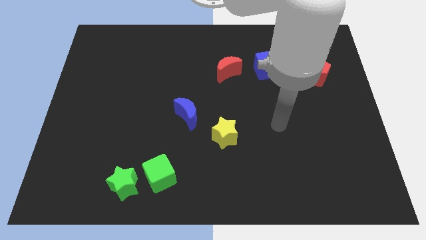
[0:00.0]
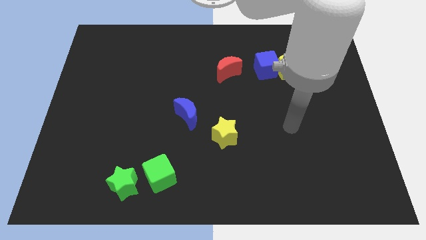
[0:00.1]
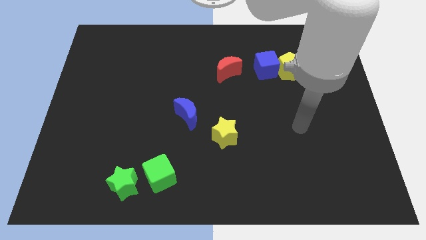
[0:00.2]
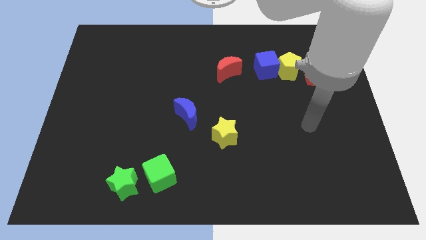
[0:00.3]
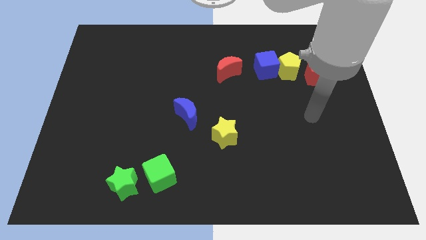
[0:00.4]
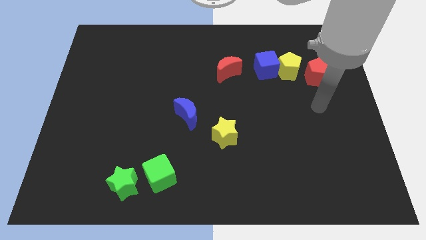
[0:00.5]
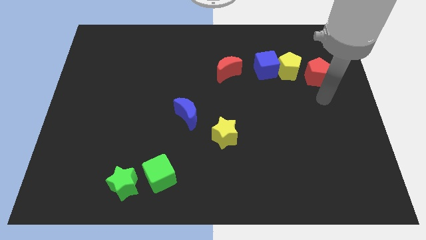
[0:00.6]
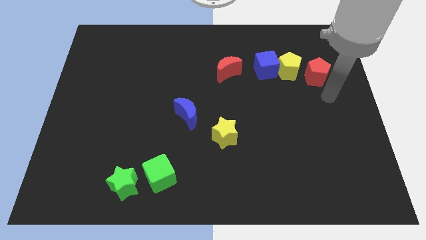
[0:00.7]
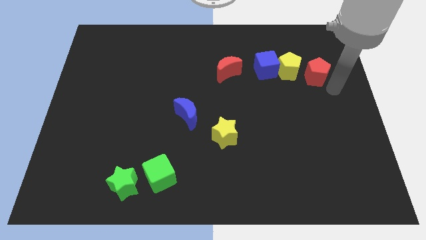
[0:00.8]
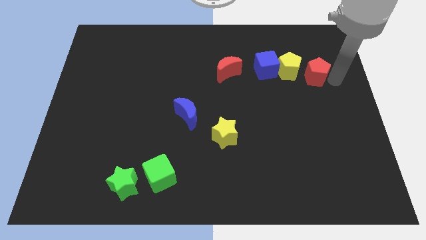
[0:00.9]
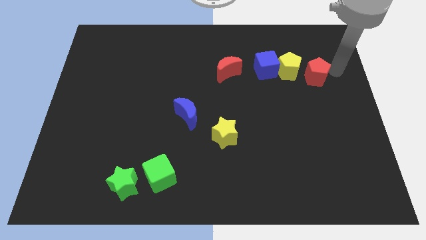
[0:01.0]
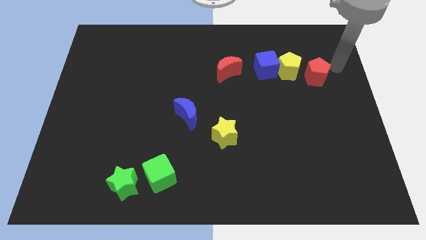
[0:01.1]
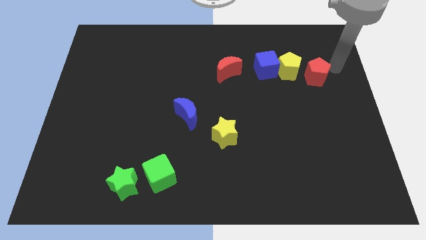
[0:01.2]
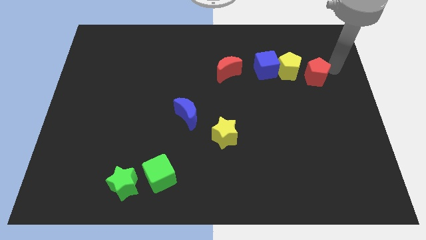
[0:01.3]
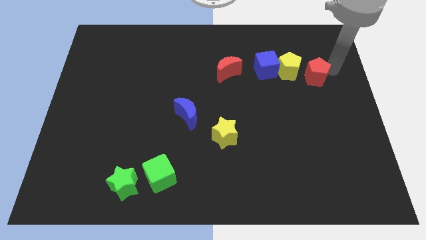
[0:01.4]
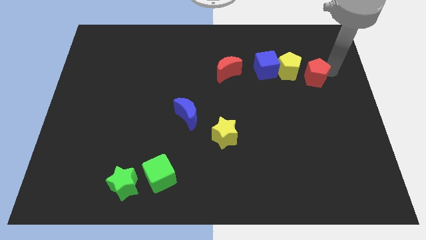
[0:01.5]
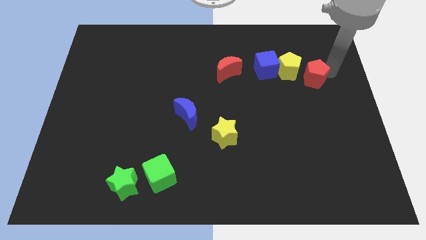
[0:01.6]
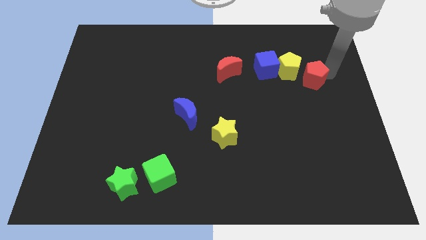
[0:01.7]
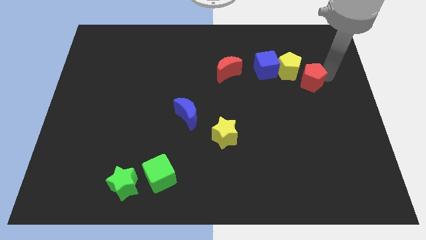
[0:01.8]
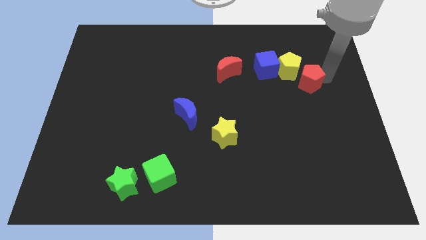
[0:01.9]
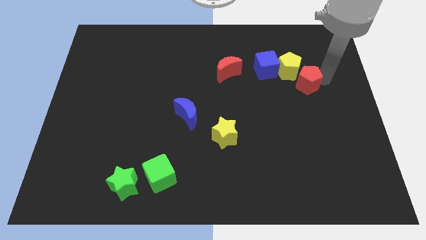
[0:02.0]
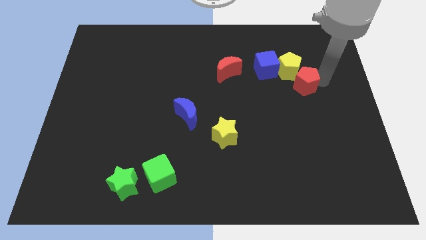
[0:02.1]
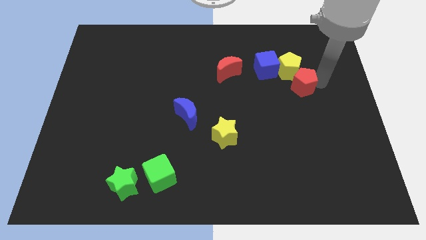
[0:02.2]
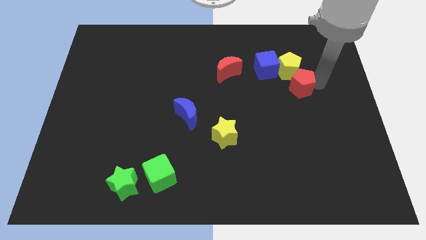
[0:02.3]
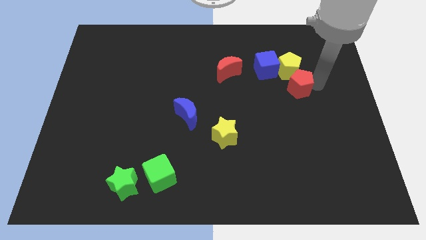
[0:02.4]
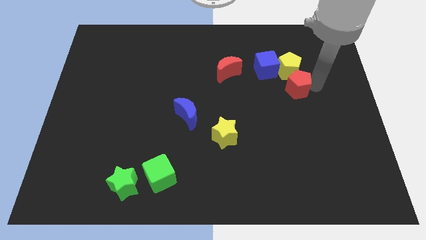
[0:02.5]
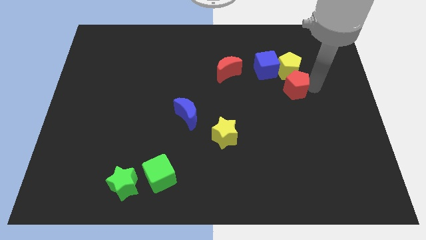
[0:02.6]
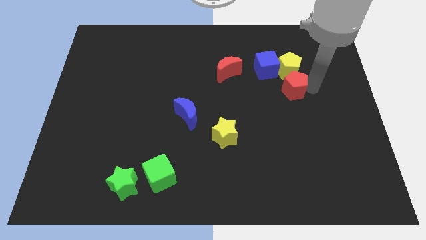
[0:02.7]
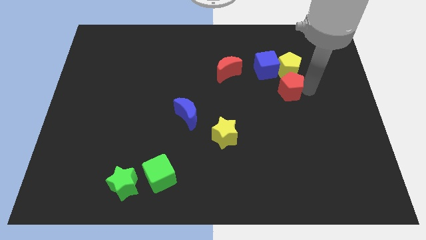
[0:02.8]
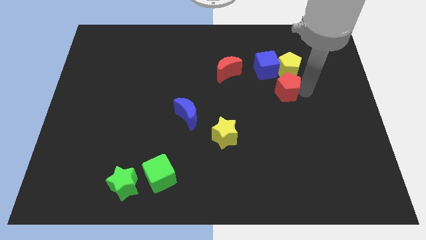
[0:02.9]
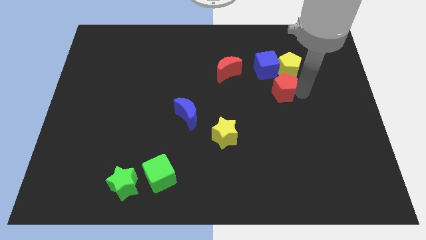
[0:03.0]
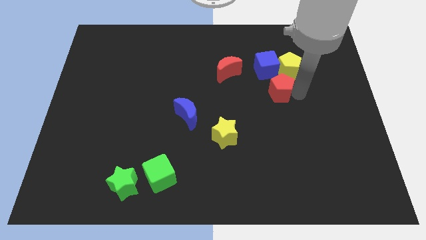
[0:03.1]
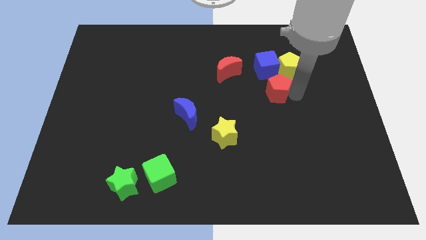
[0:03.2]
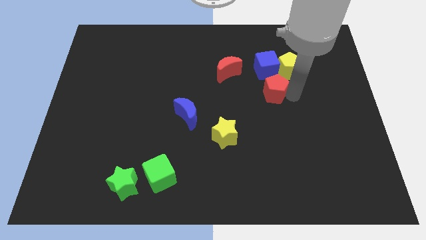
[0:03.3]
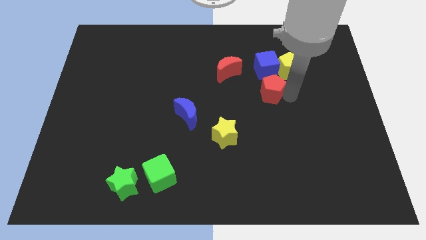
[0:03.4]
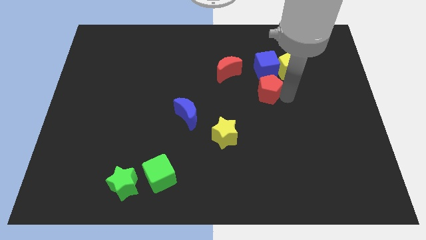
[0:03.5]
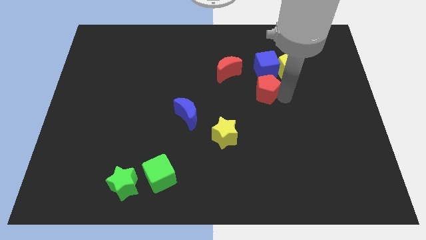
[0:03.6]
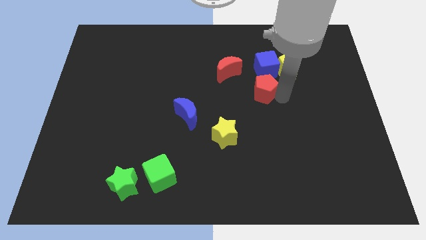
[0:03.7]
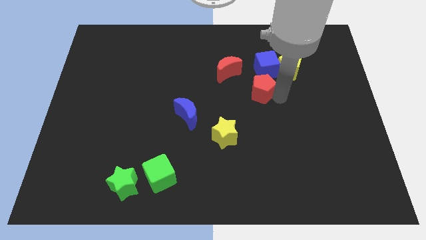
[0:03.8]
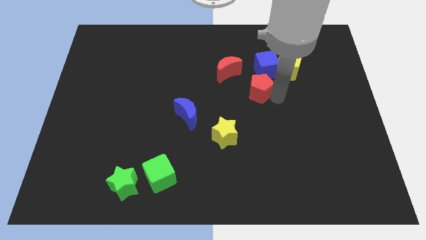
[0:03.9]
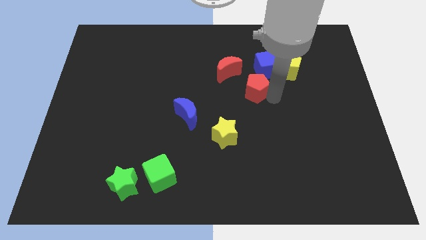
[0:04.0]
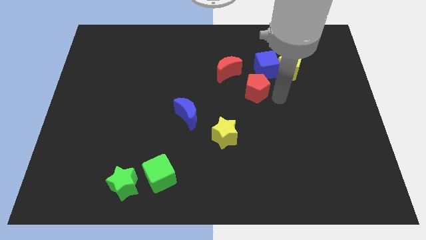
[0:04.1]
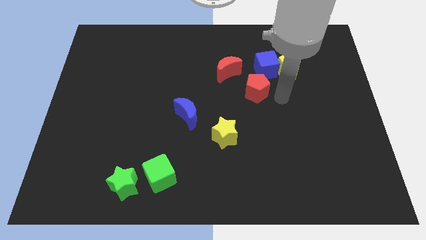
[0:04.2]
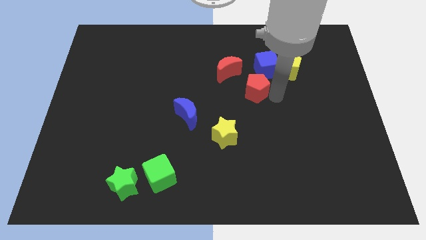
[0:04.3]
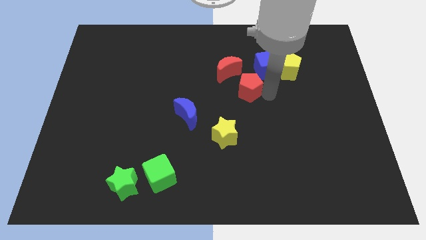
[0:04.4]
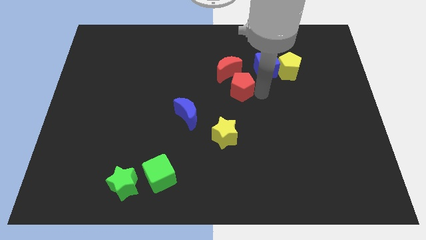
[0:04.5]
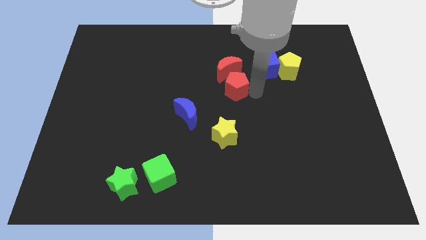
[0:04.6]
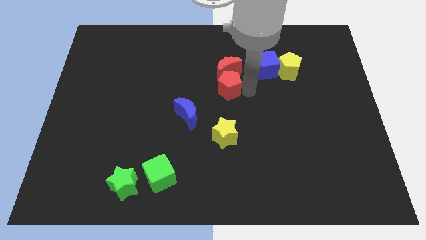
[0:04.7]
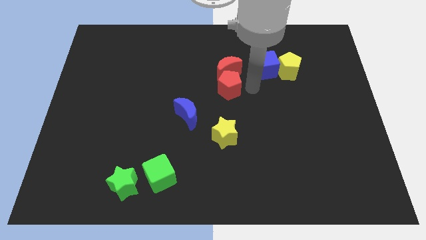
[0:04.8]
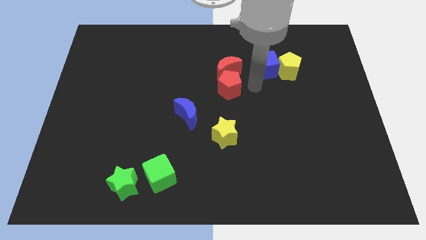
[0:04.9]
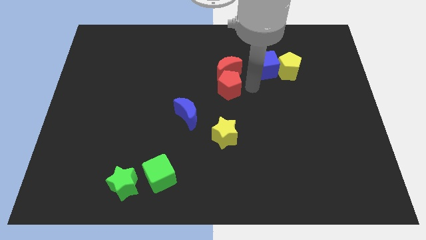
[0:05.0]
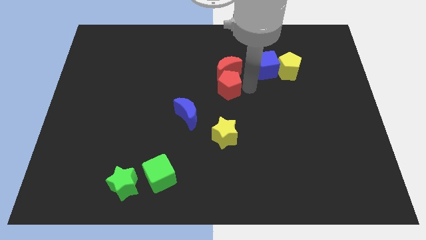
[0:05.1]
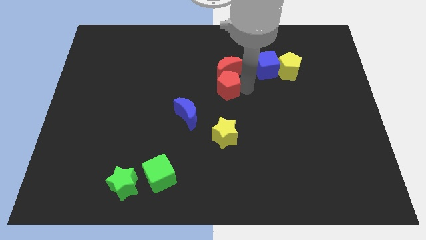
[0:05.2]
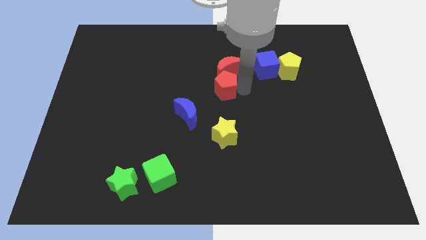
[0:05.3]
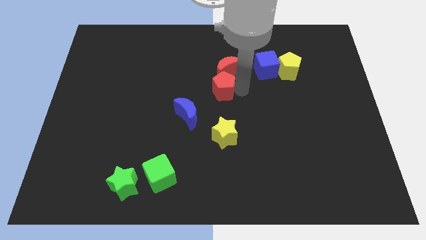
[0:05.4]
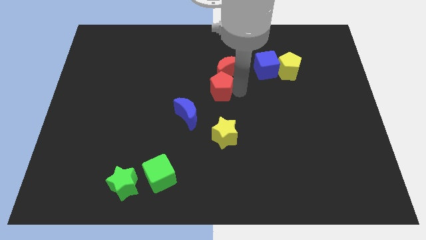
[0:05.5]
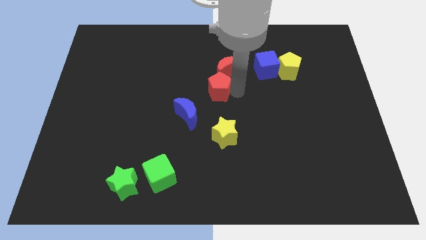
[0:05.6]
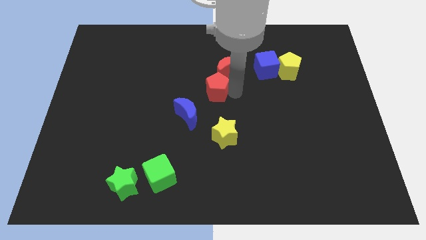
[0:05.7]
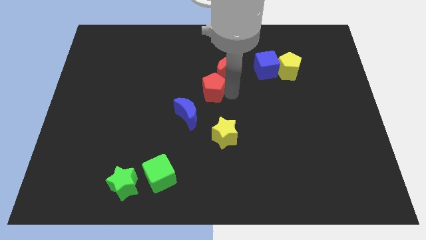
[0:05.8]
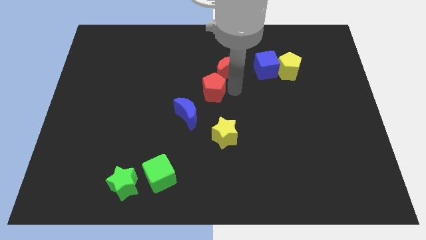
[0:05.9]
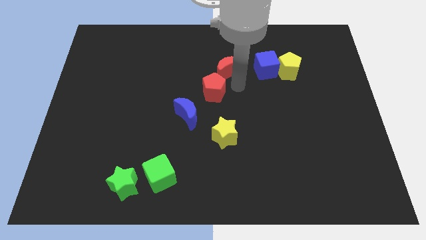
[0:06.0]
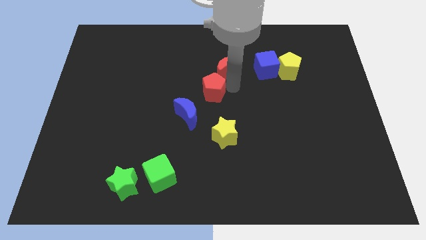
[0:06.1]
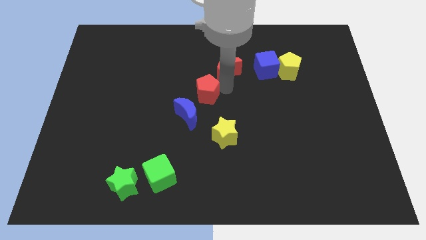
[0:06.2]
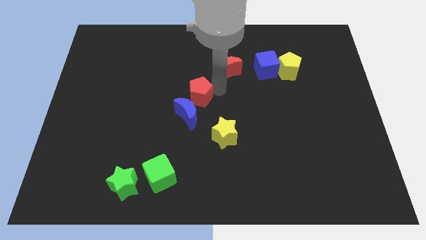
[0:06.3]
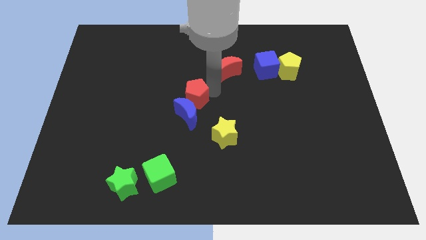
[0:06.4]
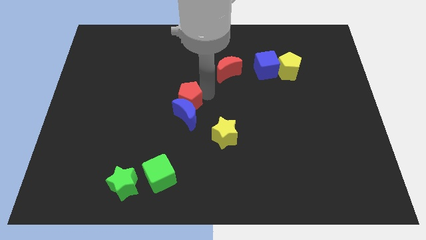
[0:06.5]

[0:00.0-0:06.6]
push the red pentagon diagonally up and to the left of the blue moon
